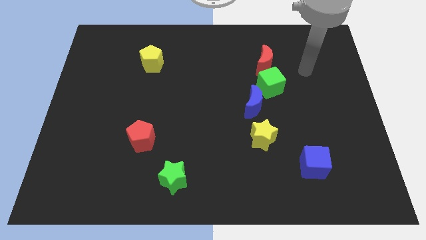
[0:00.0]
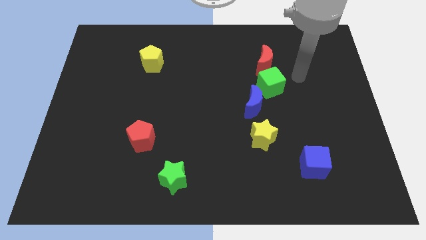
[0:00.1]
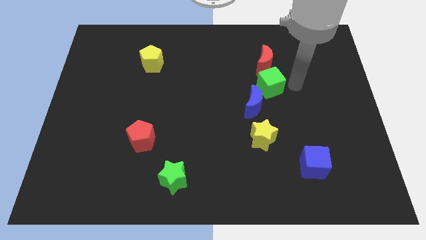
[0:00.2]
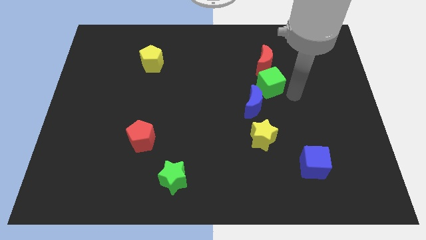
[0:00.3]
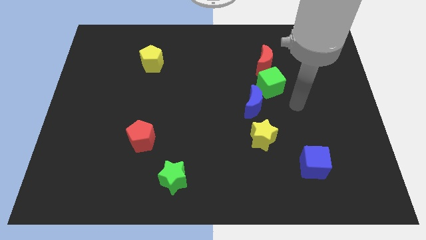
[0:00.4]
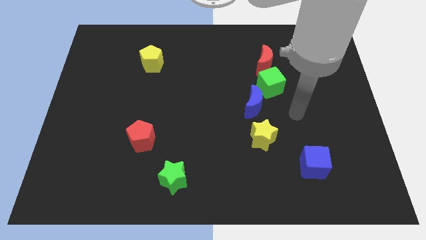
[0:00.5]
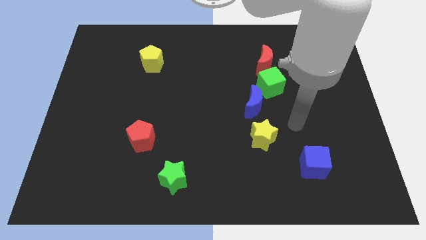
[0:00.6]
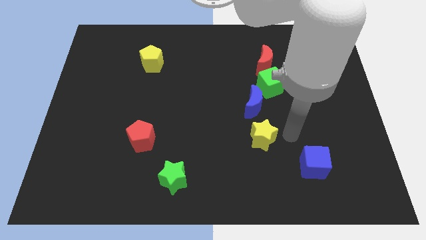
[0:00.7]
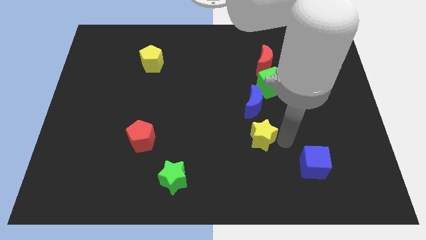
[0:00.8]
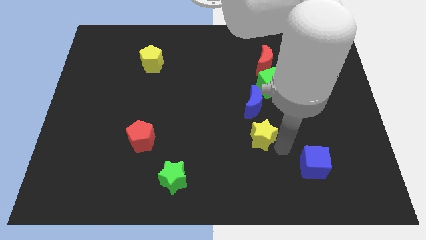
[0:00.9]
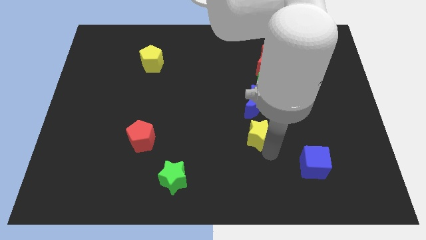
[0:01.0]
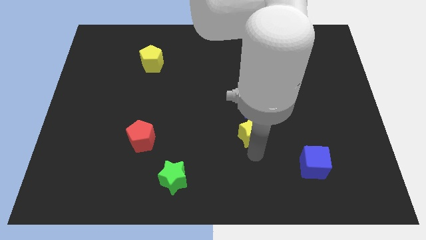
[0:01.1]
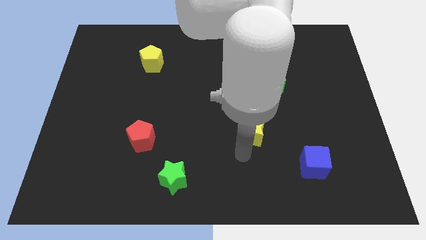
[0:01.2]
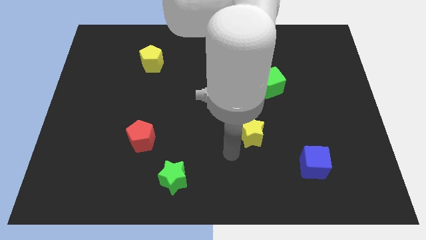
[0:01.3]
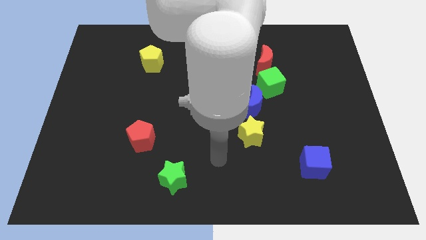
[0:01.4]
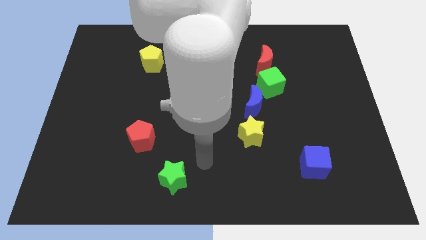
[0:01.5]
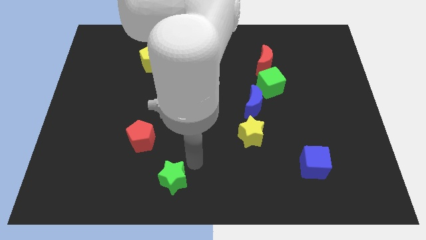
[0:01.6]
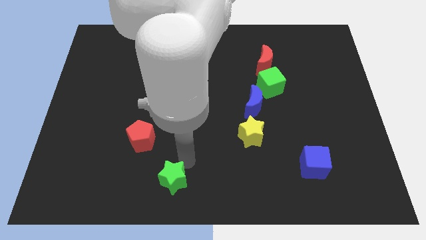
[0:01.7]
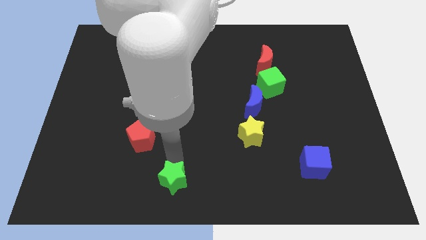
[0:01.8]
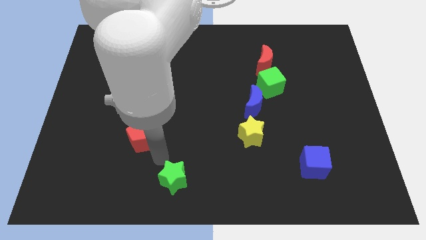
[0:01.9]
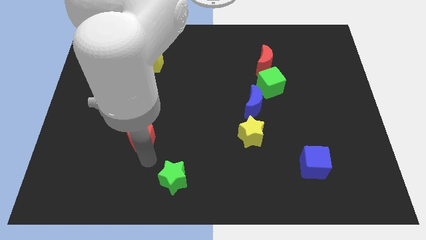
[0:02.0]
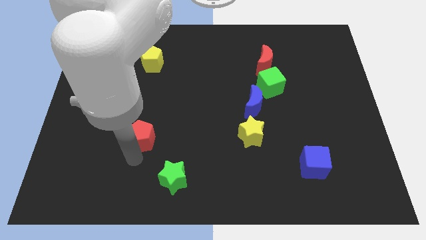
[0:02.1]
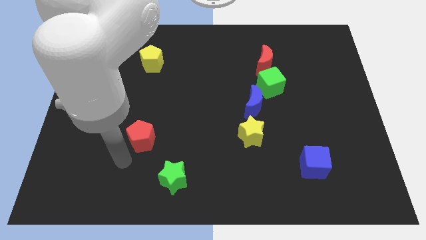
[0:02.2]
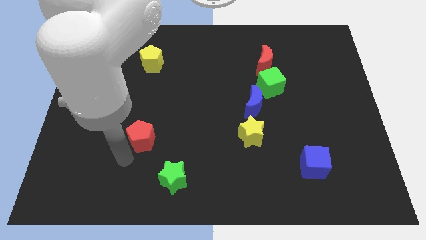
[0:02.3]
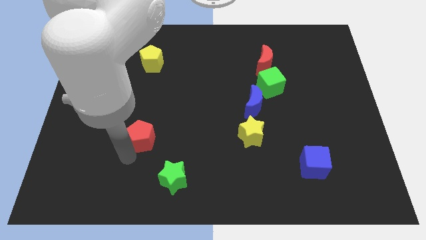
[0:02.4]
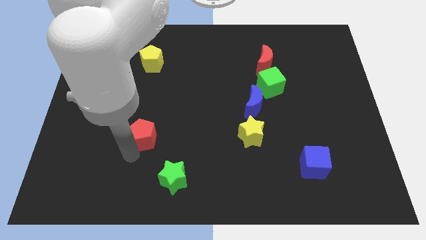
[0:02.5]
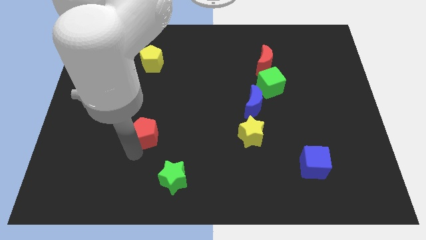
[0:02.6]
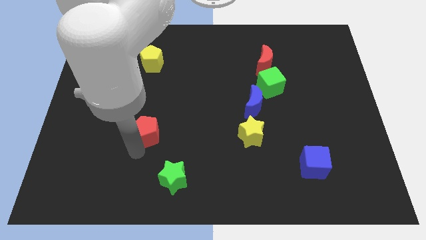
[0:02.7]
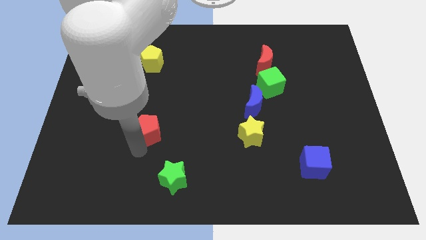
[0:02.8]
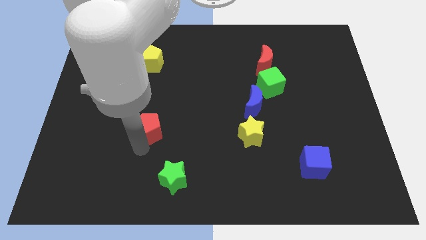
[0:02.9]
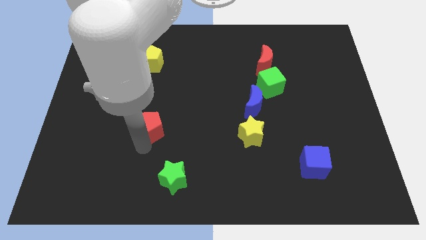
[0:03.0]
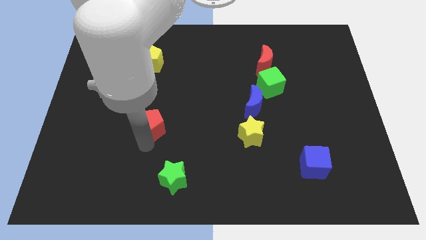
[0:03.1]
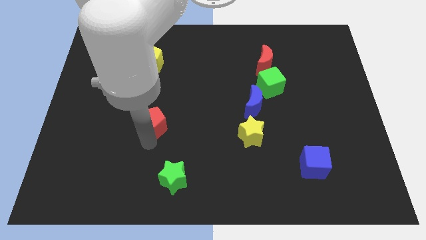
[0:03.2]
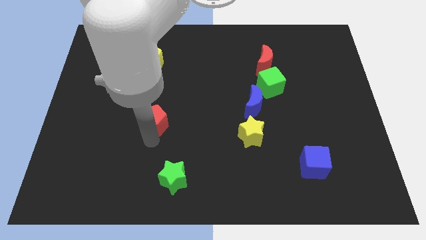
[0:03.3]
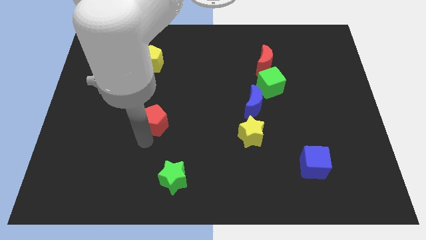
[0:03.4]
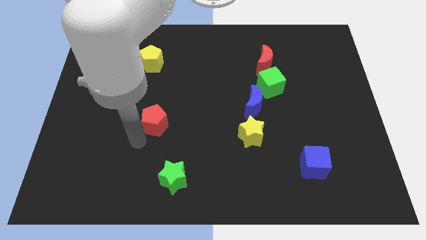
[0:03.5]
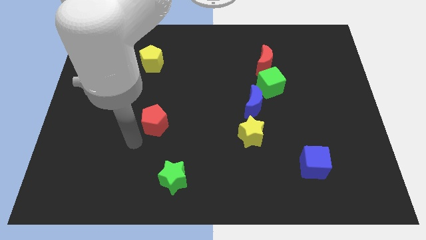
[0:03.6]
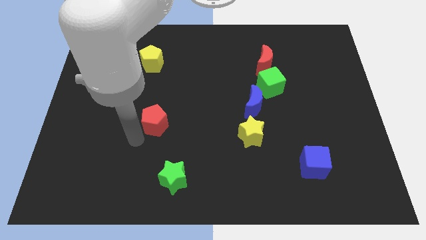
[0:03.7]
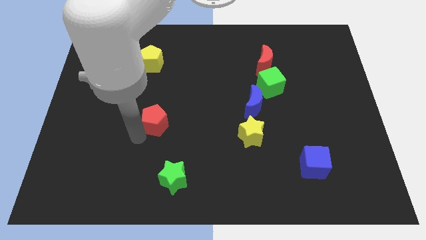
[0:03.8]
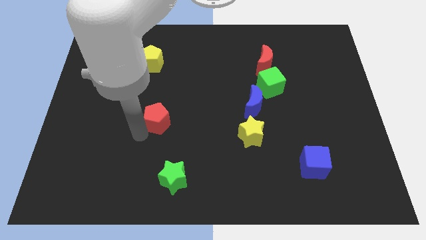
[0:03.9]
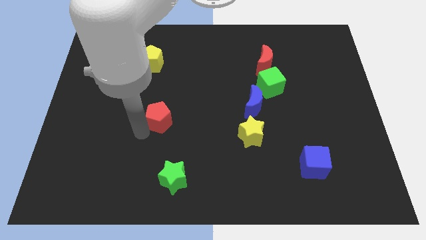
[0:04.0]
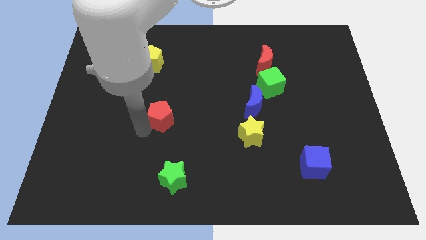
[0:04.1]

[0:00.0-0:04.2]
slightly slide the red pentagon upwards and right diagonally

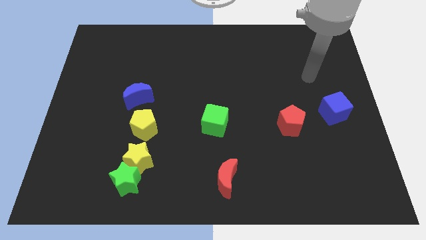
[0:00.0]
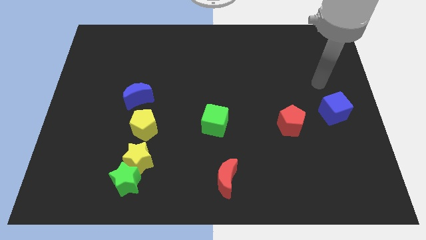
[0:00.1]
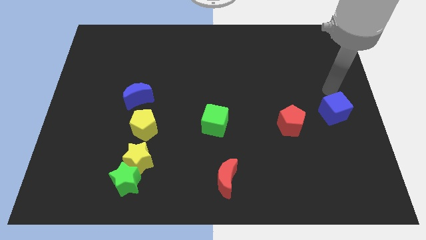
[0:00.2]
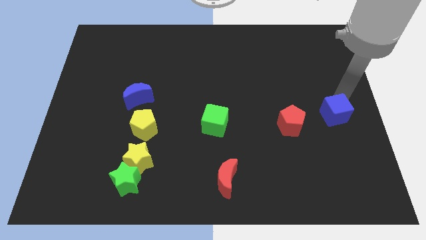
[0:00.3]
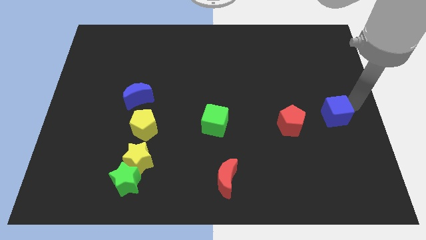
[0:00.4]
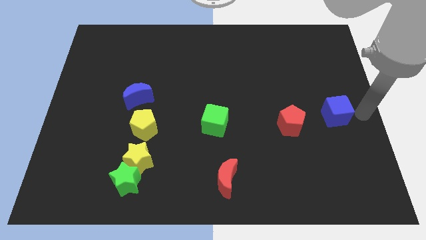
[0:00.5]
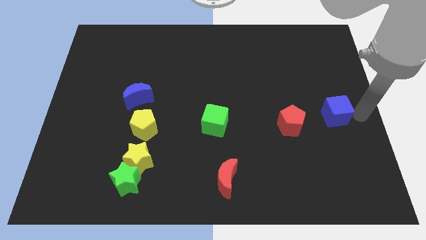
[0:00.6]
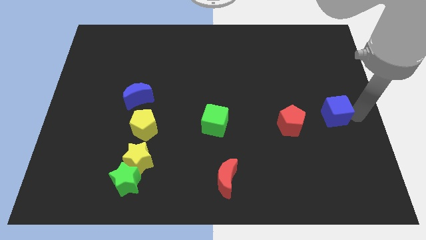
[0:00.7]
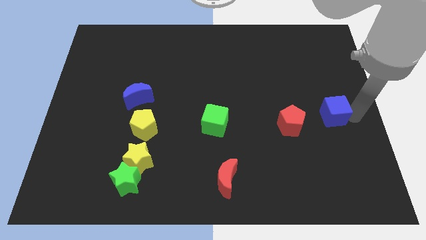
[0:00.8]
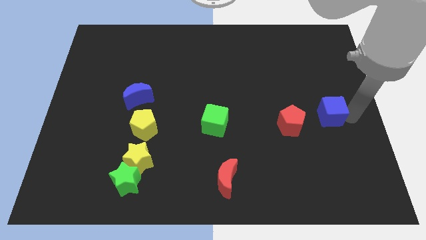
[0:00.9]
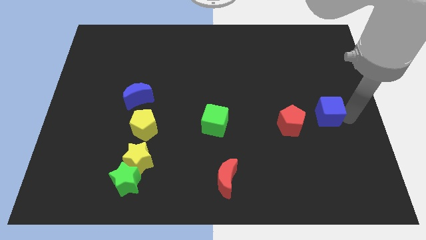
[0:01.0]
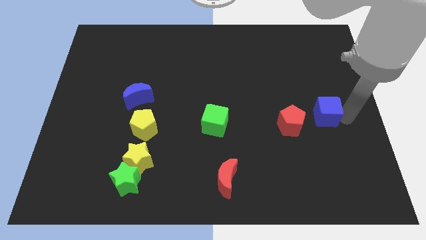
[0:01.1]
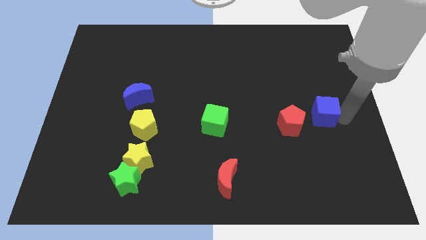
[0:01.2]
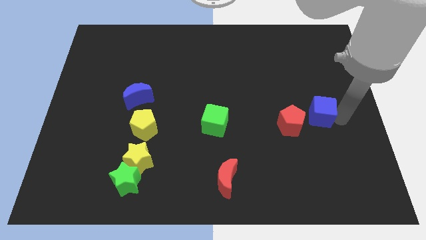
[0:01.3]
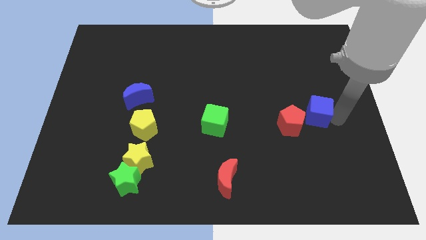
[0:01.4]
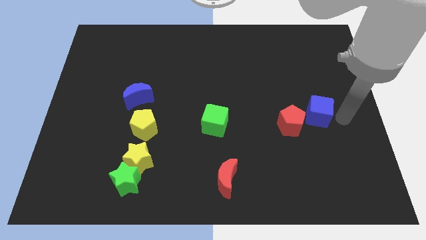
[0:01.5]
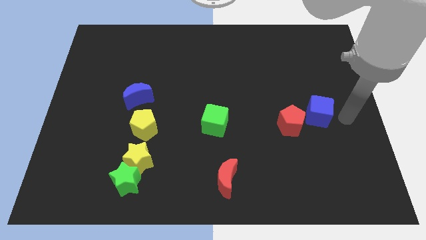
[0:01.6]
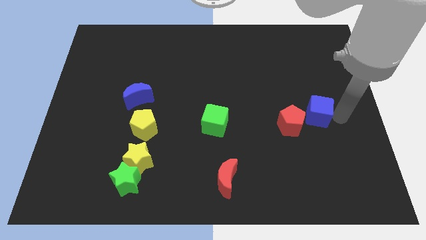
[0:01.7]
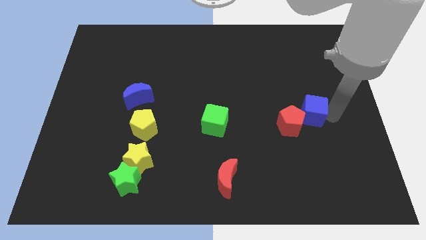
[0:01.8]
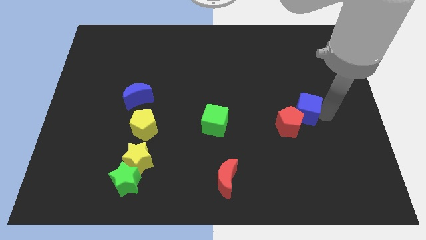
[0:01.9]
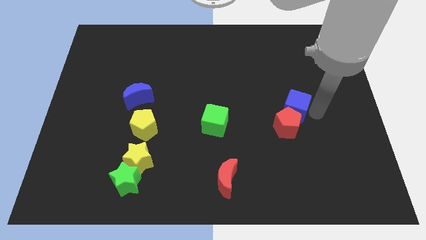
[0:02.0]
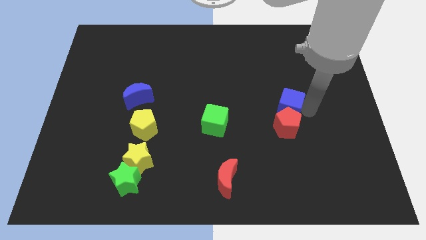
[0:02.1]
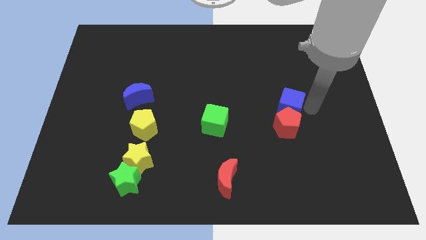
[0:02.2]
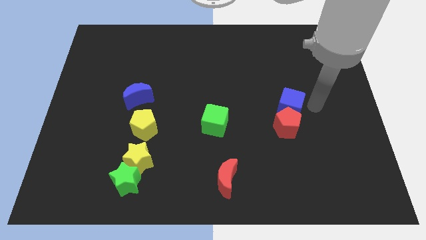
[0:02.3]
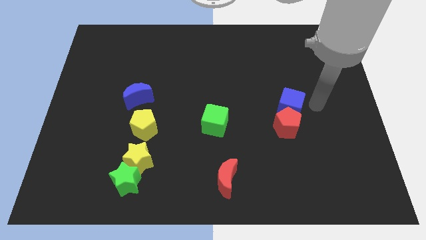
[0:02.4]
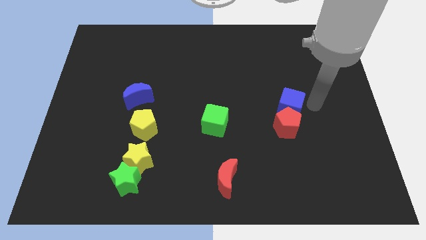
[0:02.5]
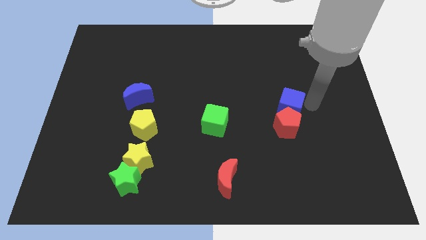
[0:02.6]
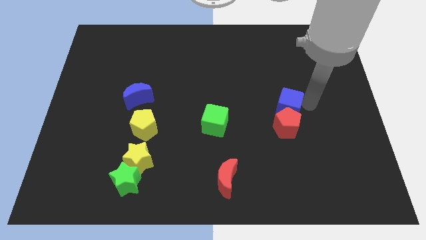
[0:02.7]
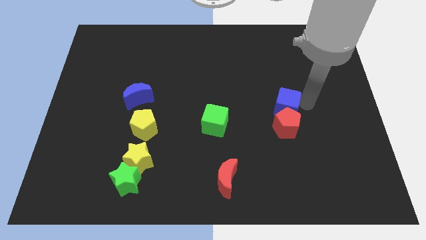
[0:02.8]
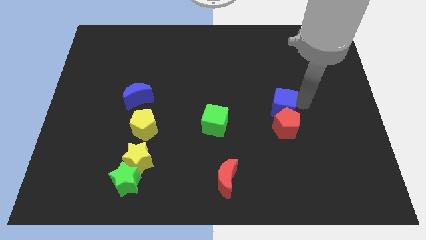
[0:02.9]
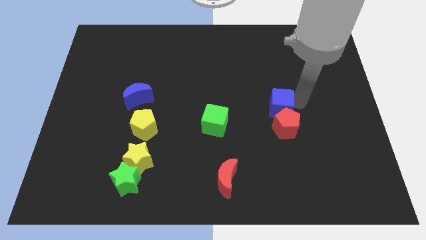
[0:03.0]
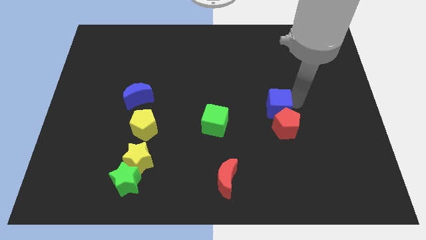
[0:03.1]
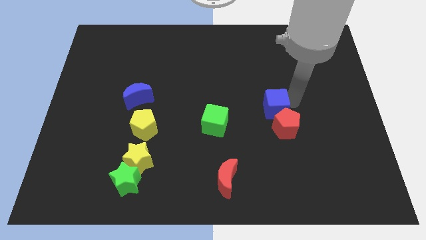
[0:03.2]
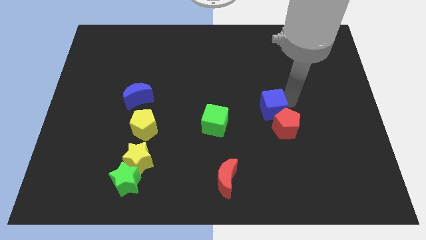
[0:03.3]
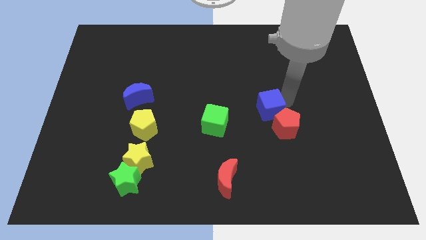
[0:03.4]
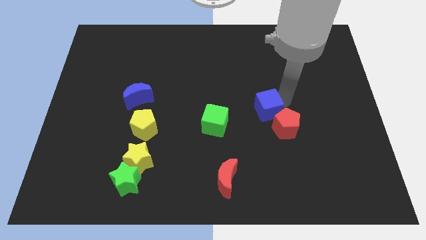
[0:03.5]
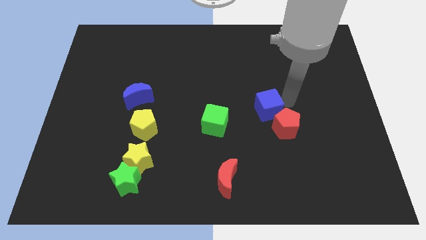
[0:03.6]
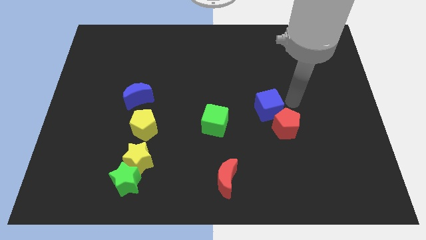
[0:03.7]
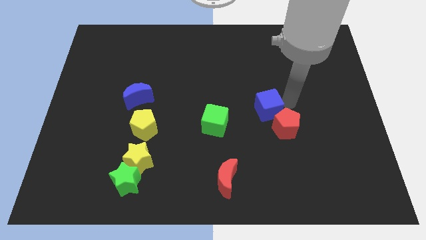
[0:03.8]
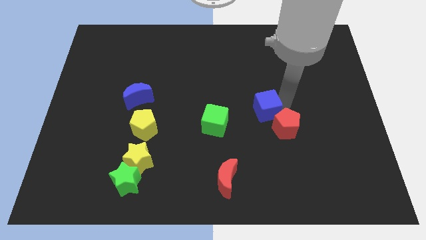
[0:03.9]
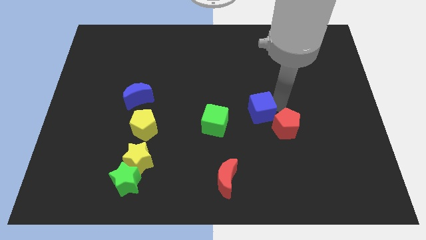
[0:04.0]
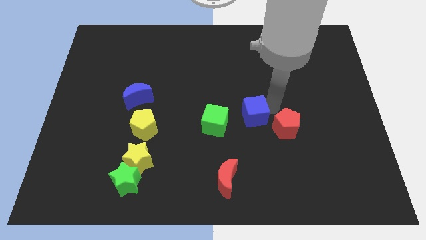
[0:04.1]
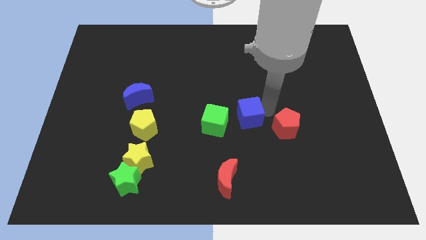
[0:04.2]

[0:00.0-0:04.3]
push the blue cube left
